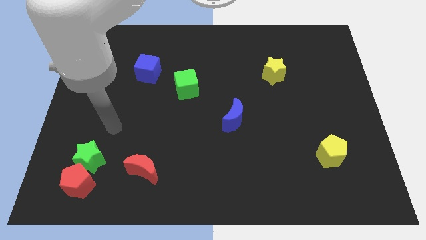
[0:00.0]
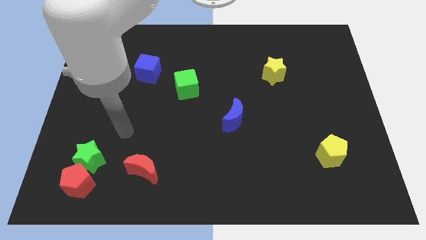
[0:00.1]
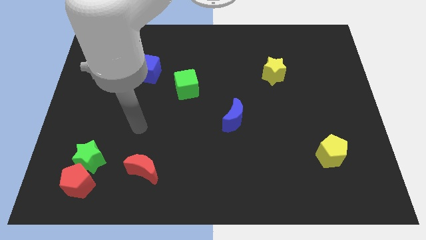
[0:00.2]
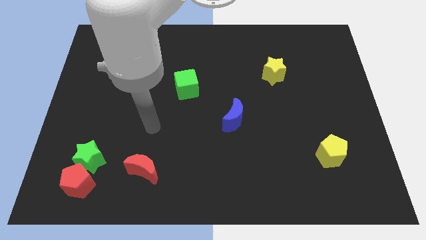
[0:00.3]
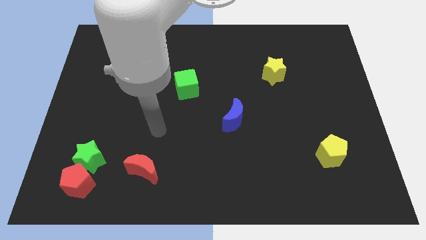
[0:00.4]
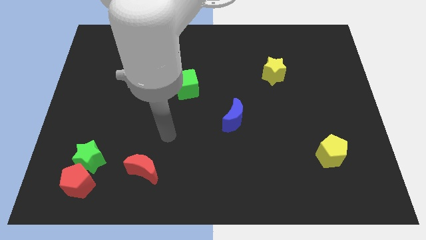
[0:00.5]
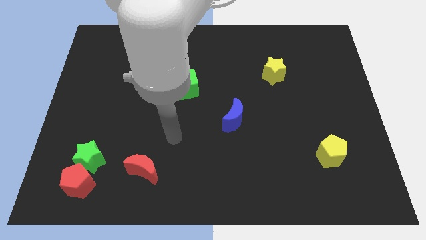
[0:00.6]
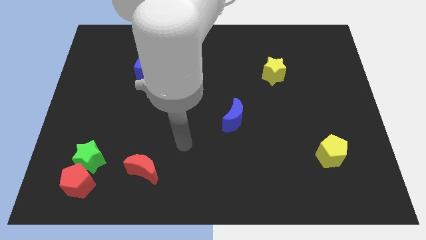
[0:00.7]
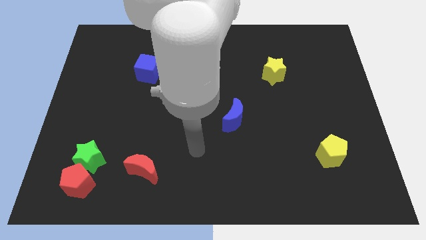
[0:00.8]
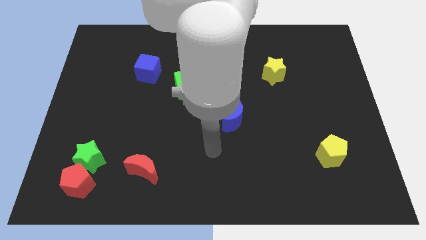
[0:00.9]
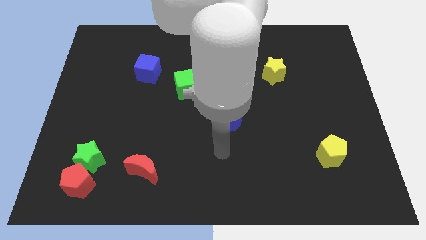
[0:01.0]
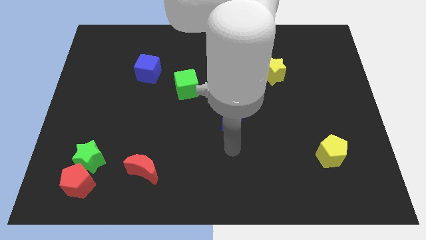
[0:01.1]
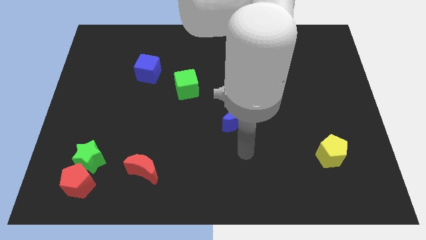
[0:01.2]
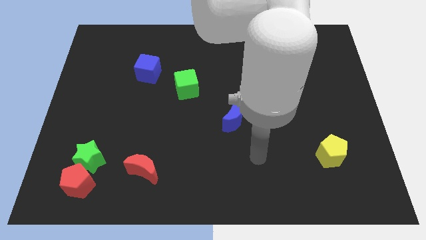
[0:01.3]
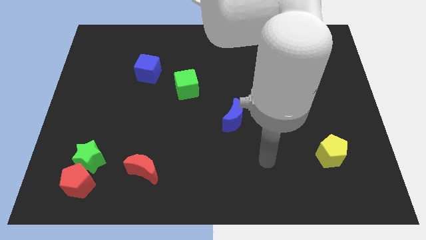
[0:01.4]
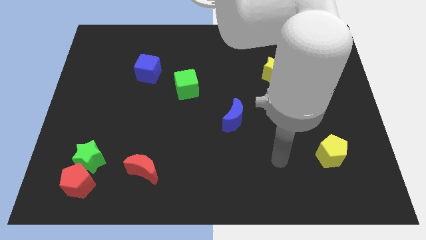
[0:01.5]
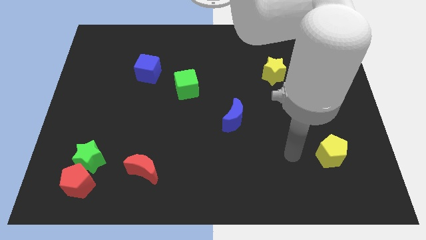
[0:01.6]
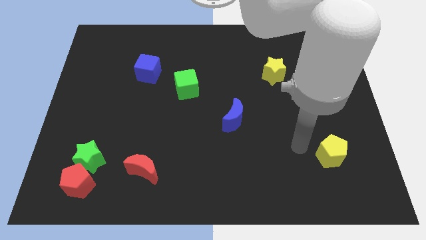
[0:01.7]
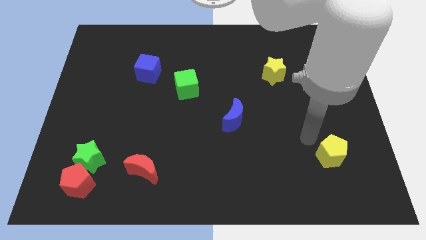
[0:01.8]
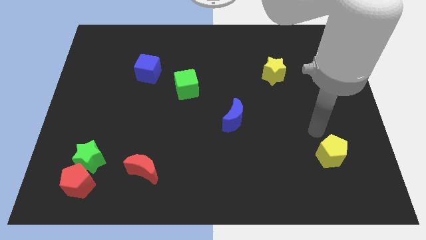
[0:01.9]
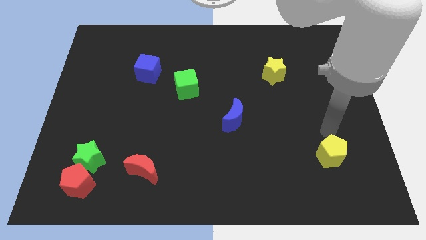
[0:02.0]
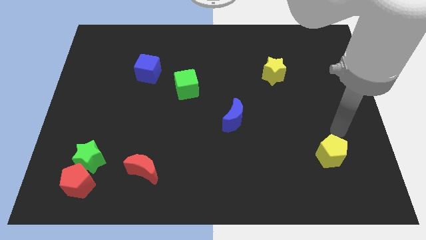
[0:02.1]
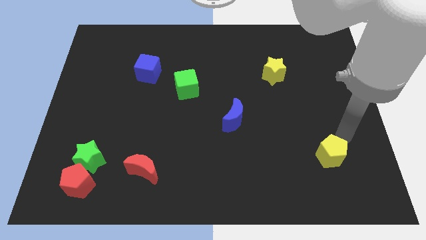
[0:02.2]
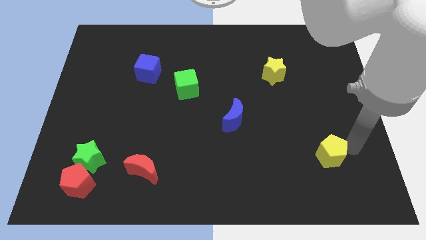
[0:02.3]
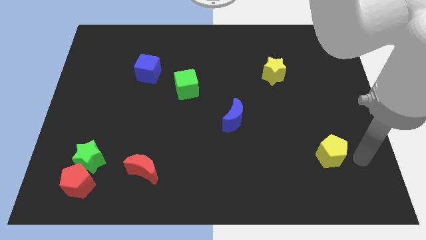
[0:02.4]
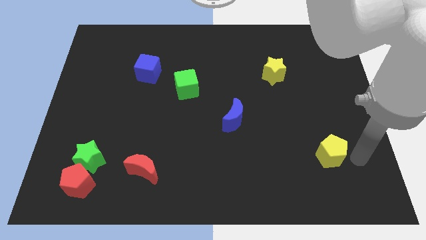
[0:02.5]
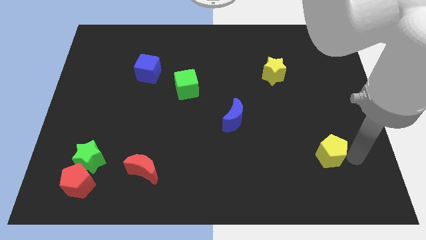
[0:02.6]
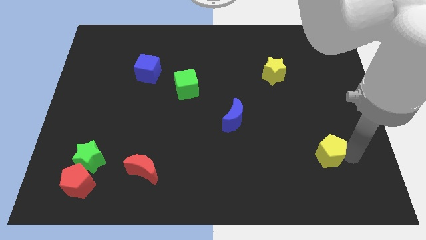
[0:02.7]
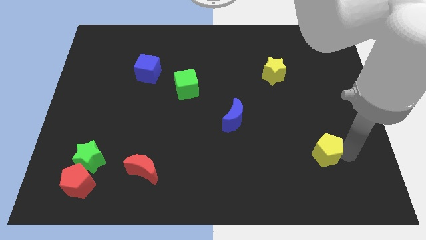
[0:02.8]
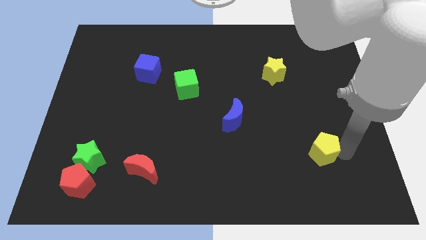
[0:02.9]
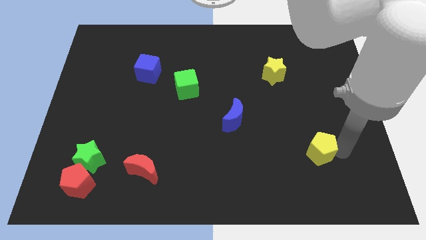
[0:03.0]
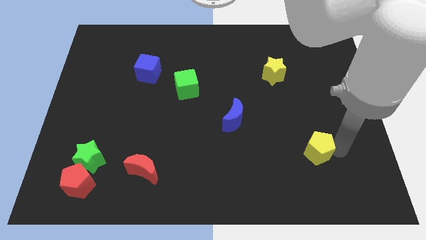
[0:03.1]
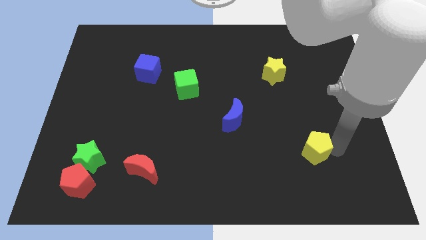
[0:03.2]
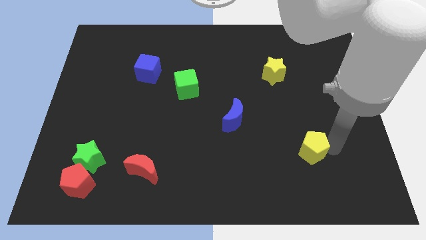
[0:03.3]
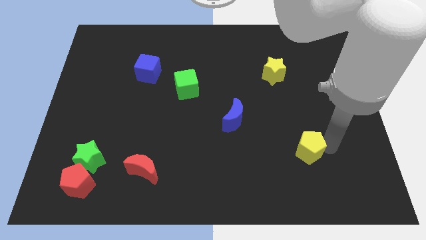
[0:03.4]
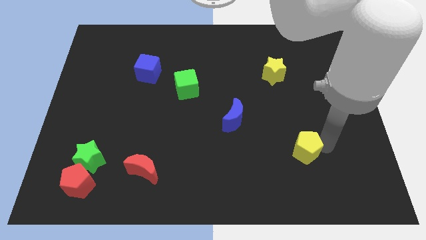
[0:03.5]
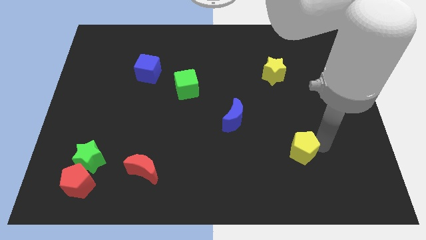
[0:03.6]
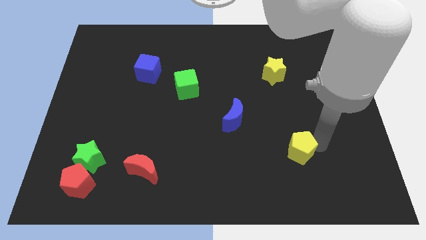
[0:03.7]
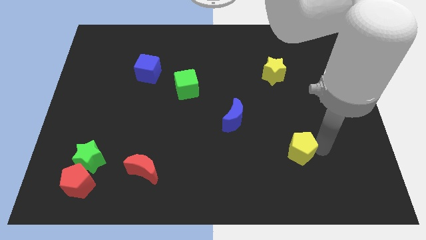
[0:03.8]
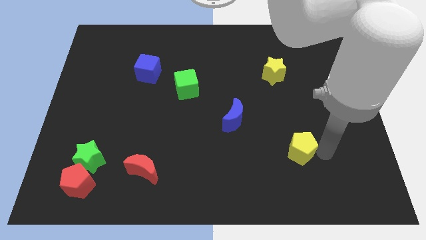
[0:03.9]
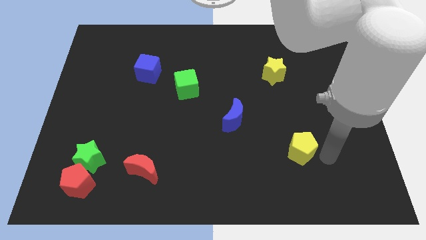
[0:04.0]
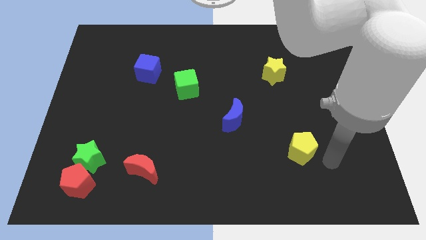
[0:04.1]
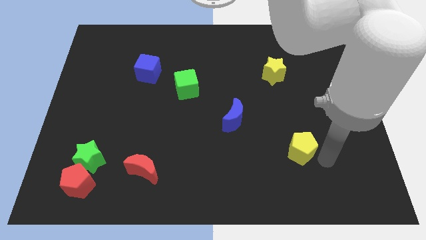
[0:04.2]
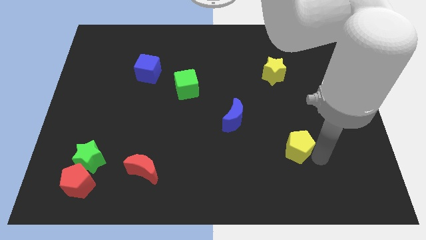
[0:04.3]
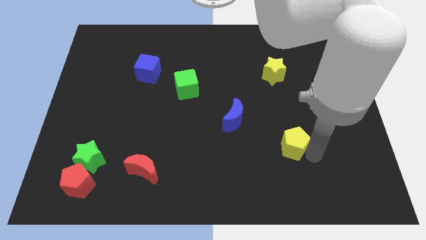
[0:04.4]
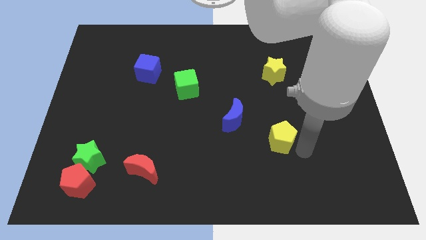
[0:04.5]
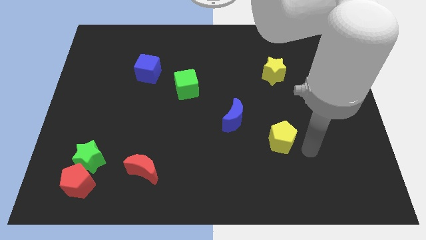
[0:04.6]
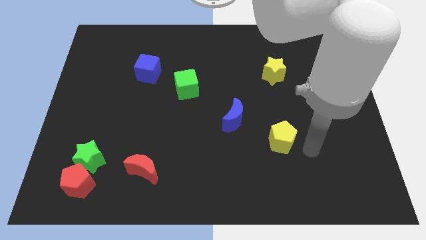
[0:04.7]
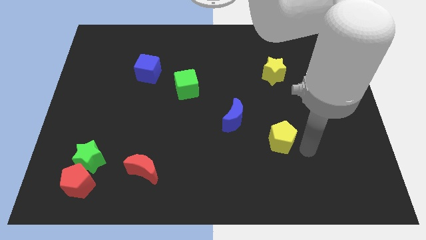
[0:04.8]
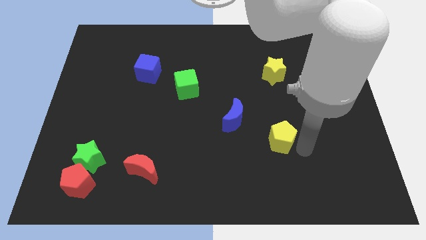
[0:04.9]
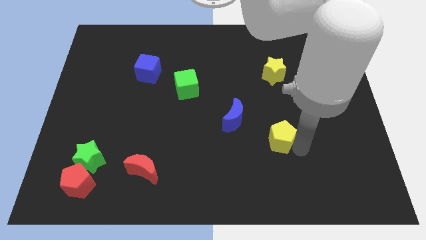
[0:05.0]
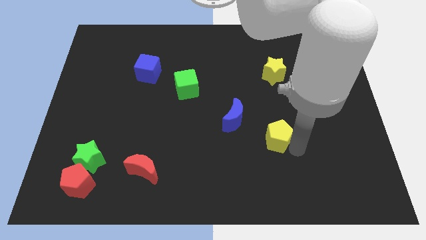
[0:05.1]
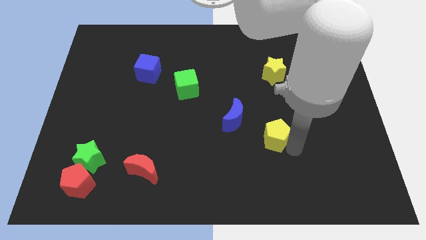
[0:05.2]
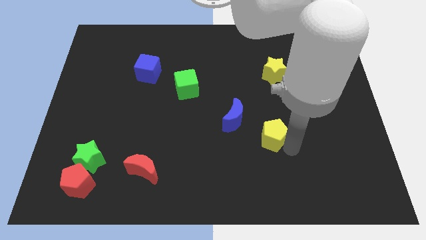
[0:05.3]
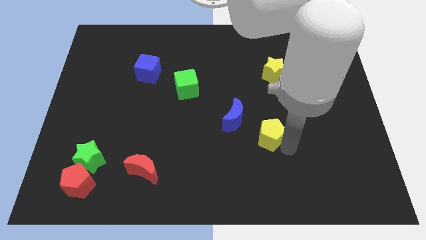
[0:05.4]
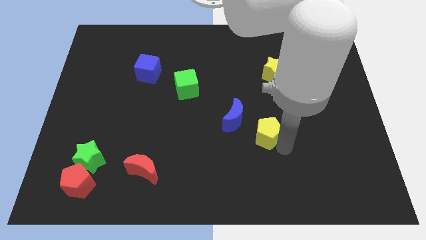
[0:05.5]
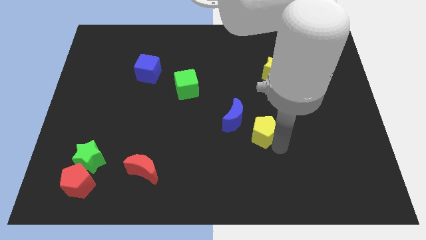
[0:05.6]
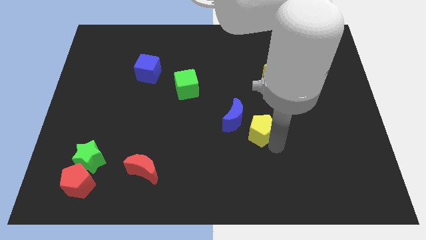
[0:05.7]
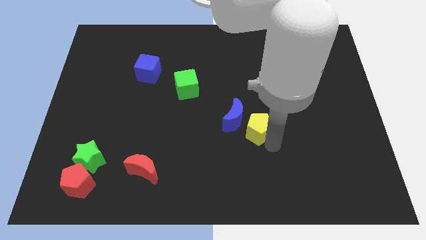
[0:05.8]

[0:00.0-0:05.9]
slide the yellow pentagon to the blue moon

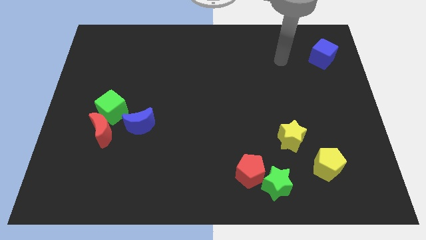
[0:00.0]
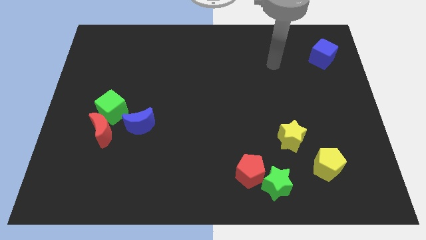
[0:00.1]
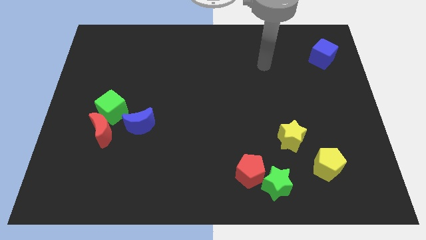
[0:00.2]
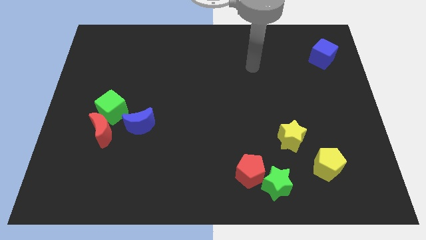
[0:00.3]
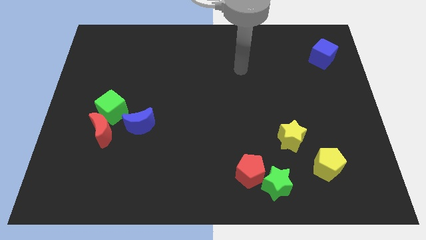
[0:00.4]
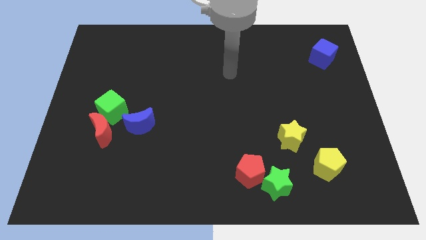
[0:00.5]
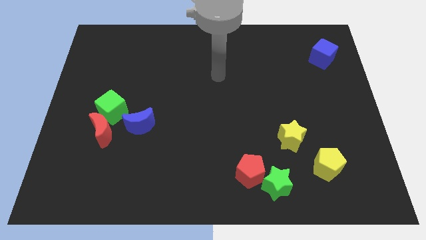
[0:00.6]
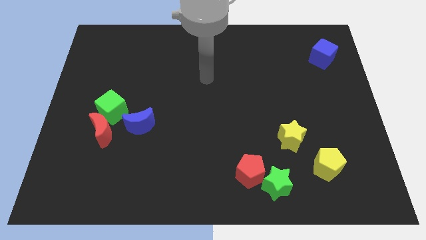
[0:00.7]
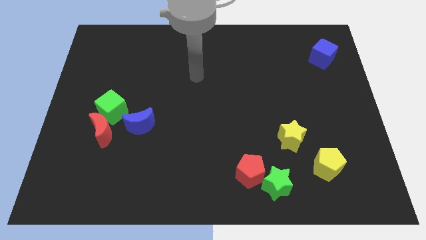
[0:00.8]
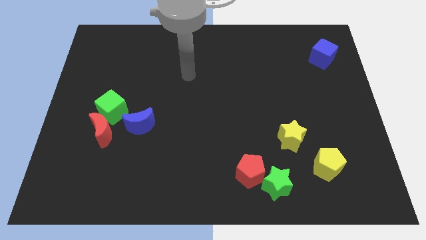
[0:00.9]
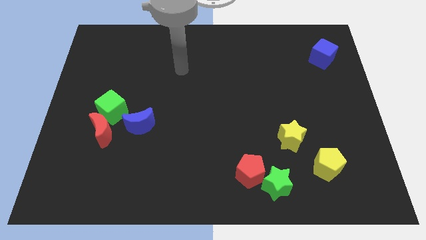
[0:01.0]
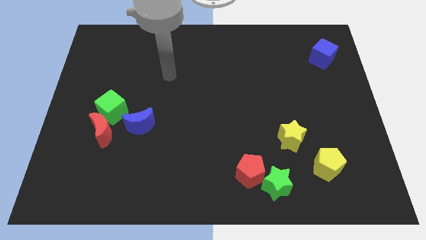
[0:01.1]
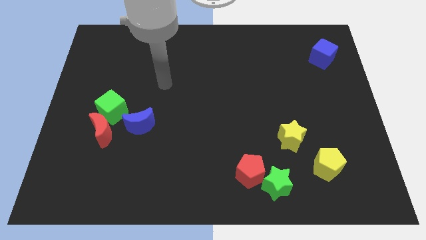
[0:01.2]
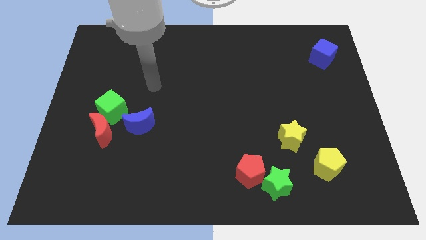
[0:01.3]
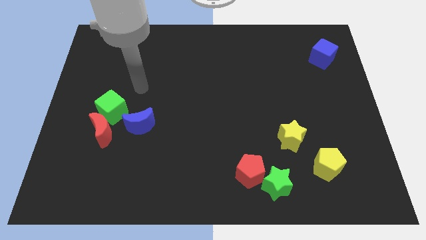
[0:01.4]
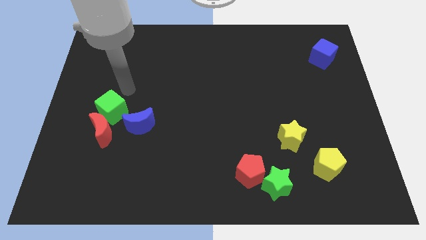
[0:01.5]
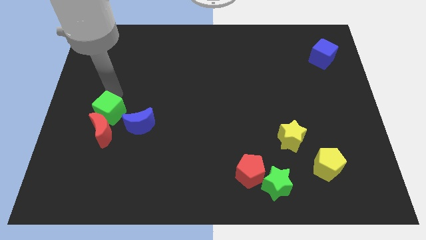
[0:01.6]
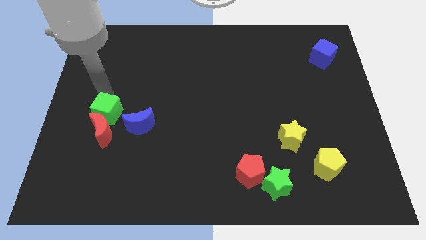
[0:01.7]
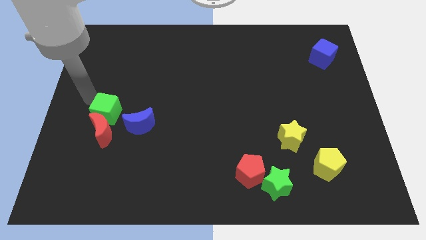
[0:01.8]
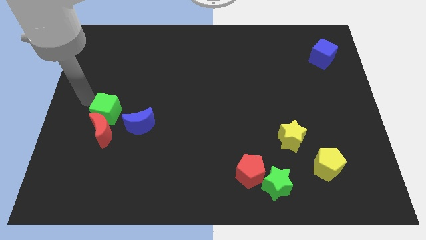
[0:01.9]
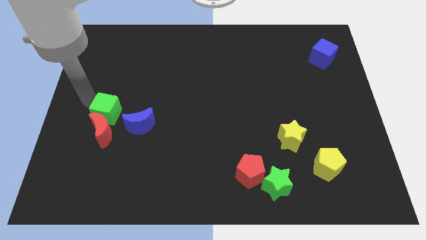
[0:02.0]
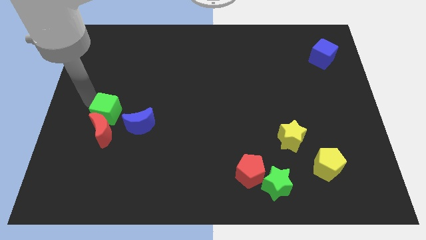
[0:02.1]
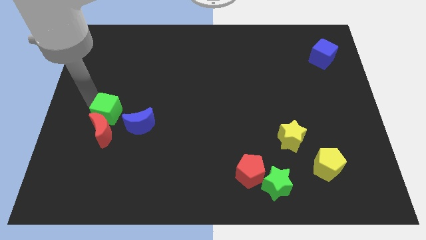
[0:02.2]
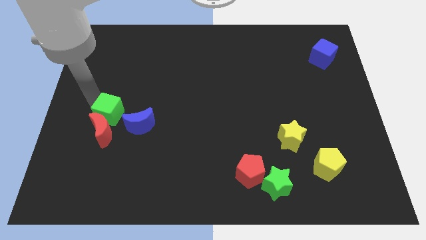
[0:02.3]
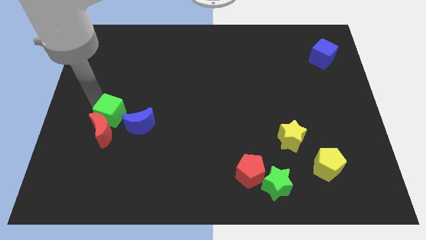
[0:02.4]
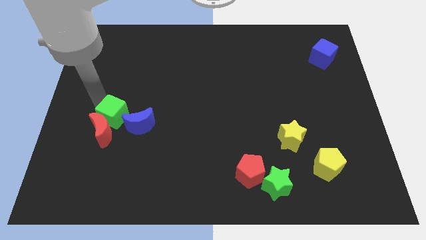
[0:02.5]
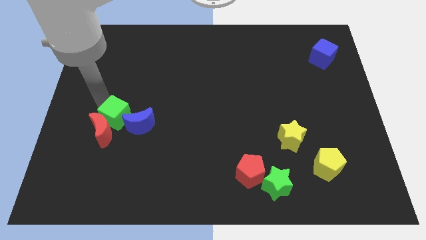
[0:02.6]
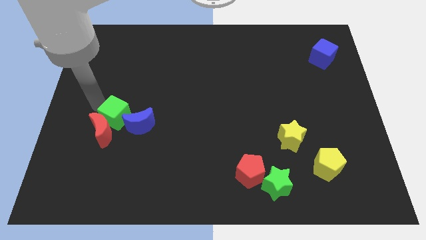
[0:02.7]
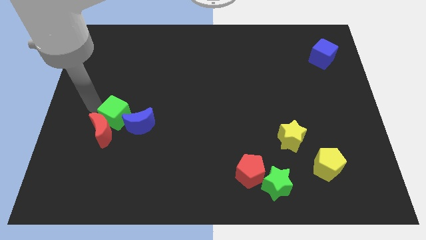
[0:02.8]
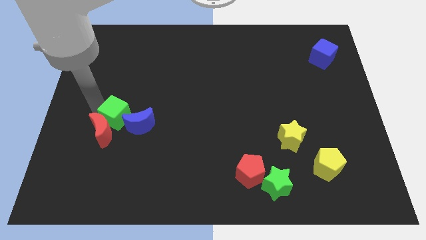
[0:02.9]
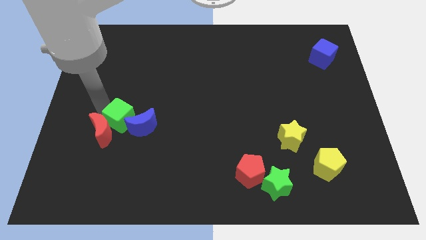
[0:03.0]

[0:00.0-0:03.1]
slide the green cube towards the blue moon
